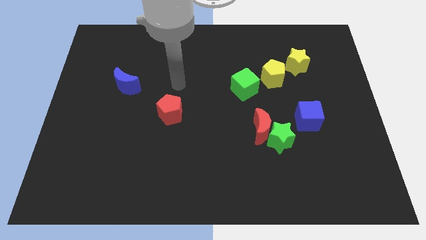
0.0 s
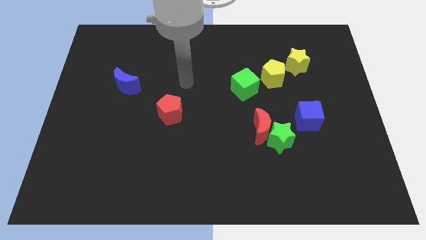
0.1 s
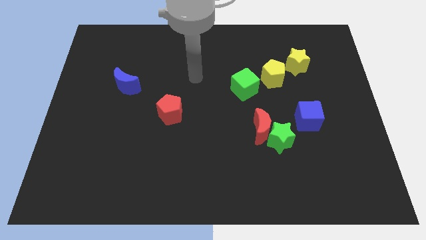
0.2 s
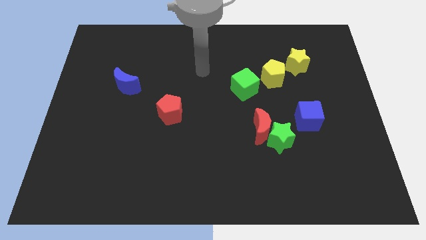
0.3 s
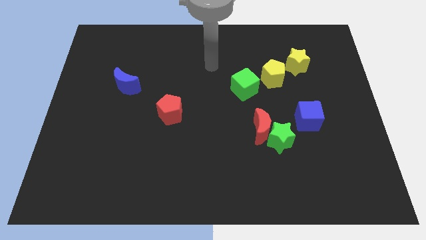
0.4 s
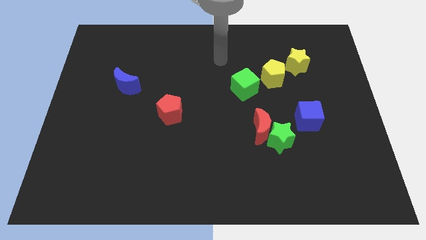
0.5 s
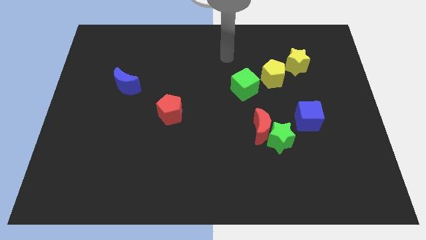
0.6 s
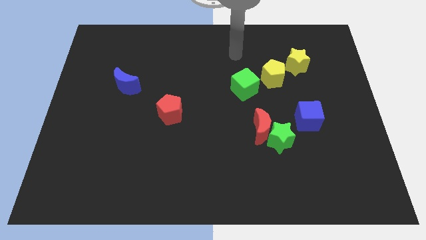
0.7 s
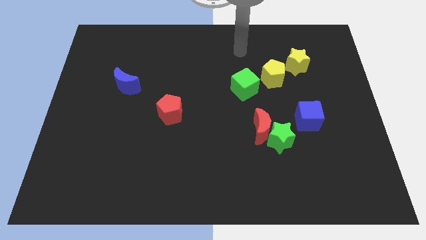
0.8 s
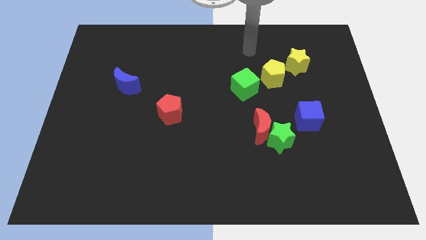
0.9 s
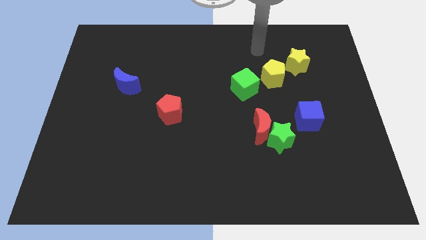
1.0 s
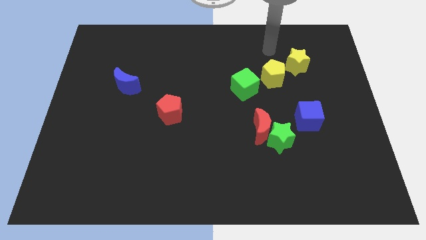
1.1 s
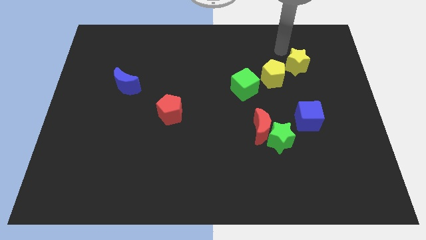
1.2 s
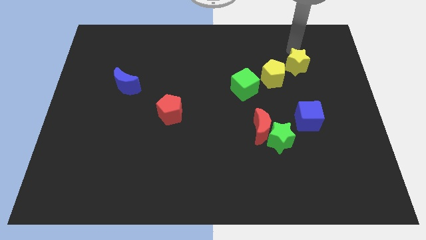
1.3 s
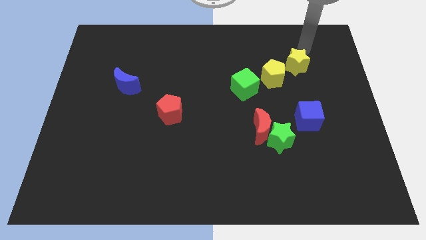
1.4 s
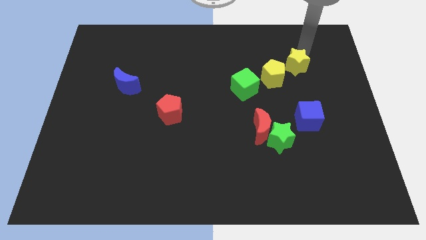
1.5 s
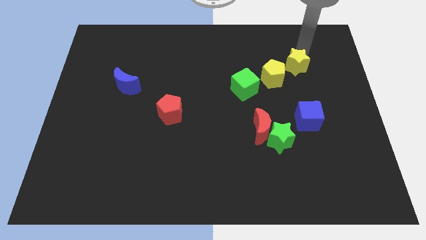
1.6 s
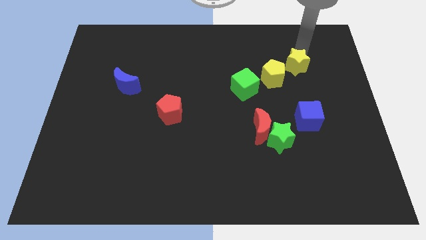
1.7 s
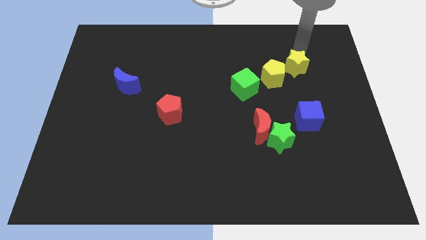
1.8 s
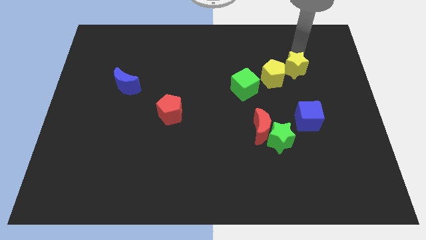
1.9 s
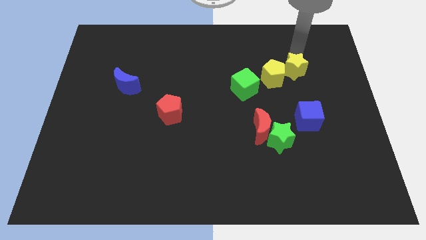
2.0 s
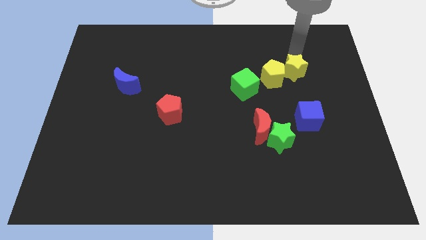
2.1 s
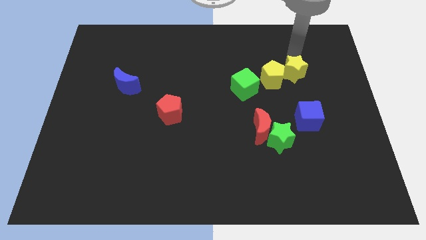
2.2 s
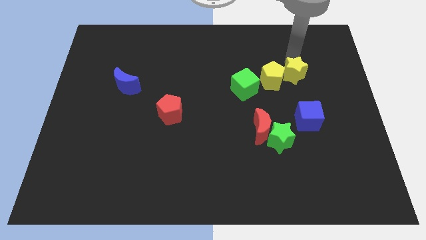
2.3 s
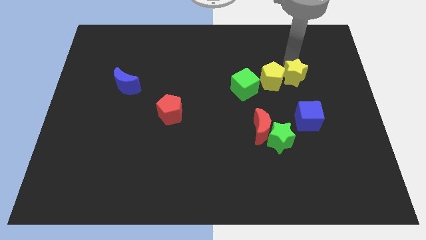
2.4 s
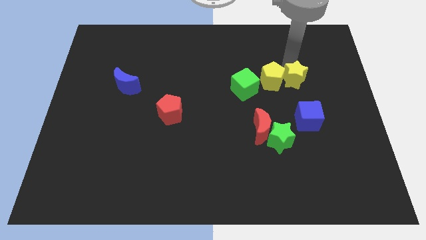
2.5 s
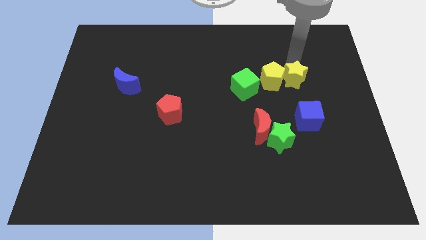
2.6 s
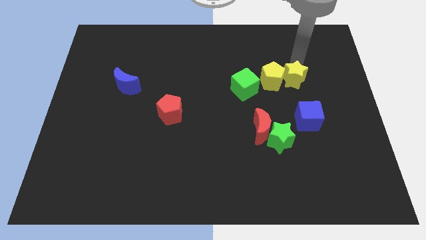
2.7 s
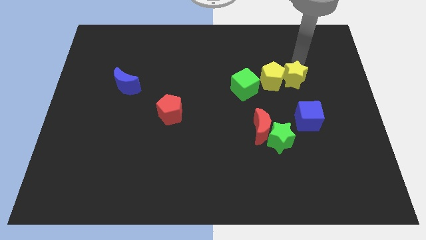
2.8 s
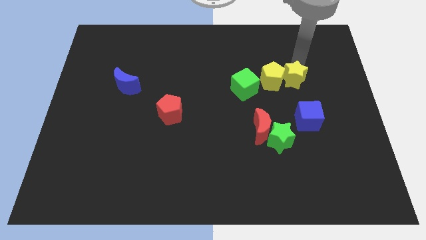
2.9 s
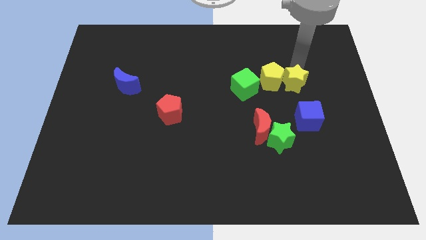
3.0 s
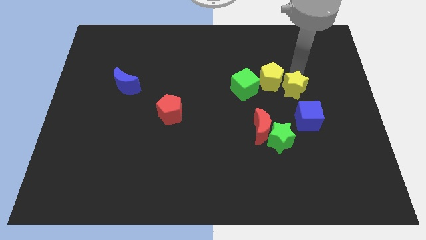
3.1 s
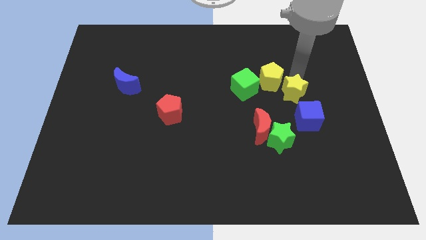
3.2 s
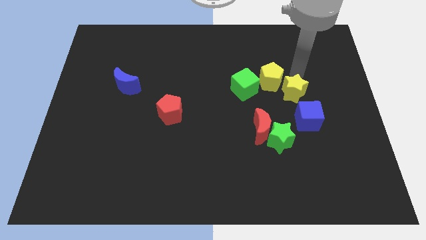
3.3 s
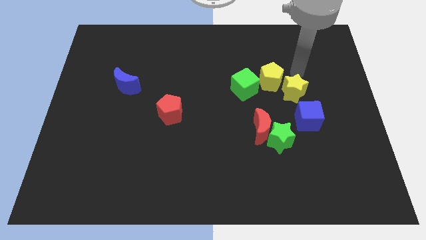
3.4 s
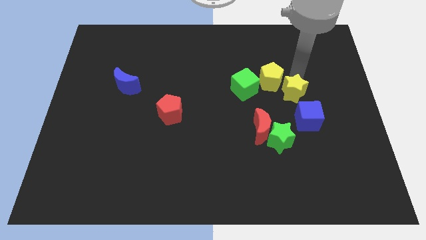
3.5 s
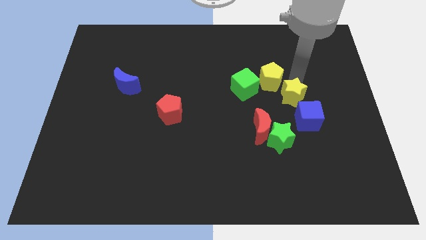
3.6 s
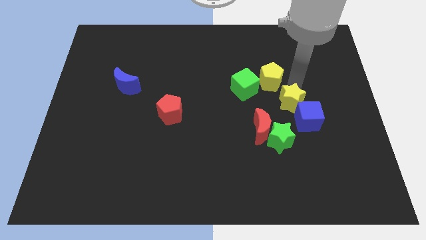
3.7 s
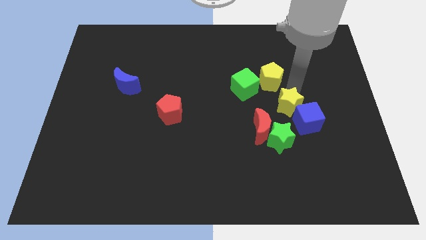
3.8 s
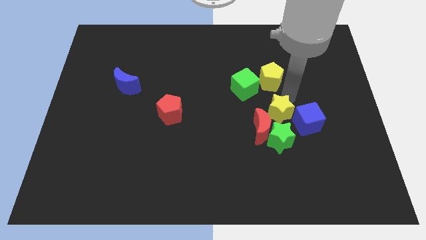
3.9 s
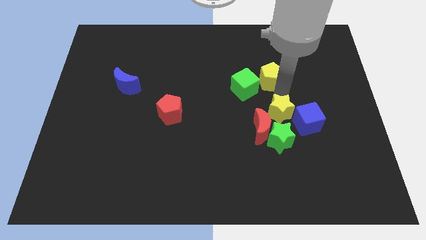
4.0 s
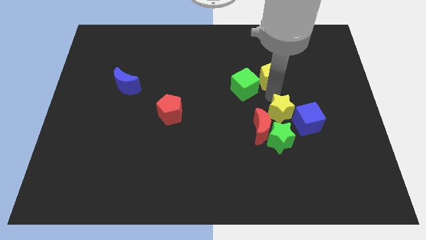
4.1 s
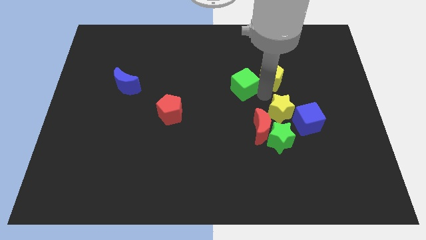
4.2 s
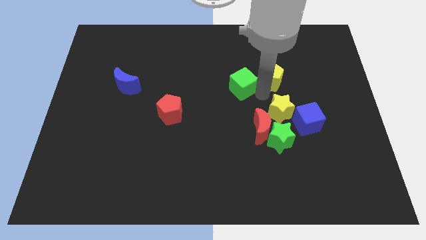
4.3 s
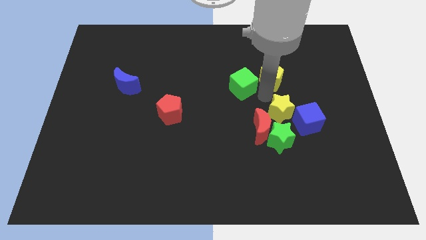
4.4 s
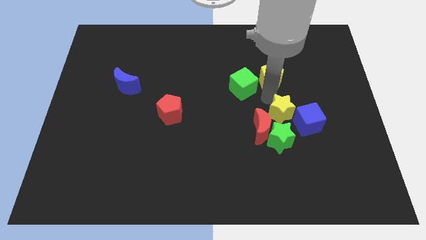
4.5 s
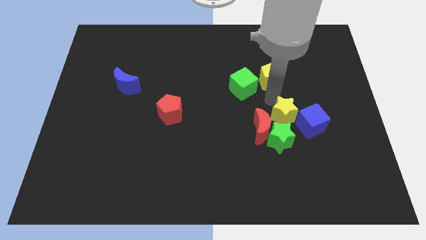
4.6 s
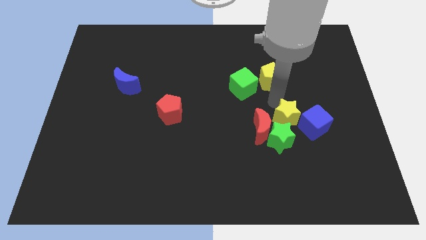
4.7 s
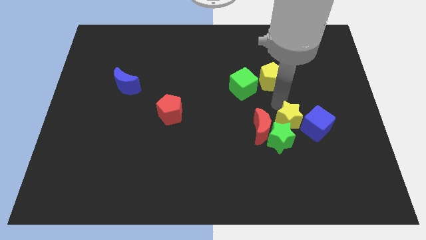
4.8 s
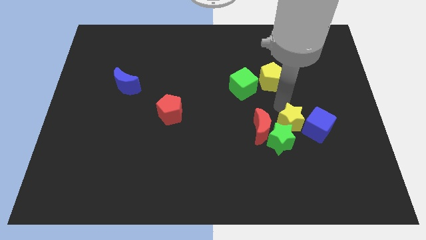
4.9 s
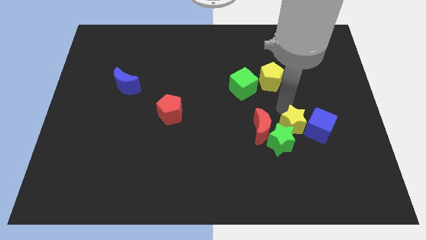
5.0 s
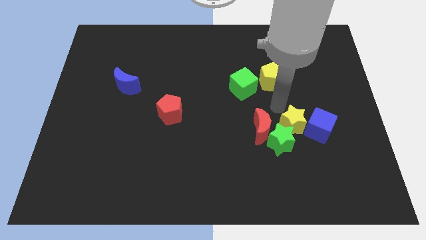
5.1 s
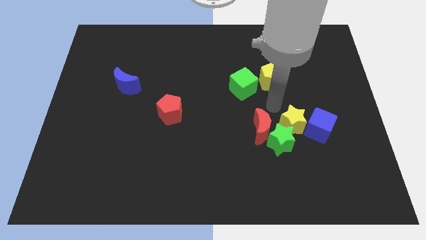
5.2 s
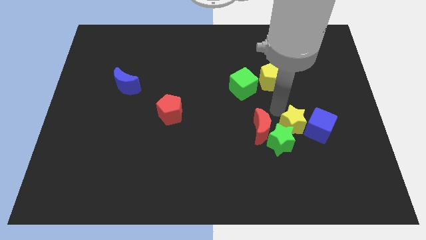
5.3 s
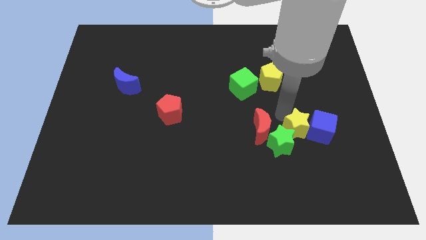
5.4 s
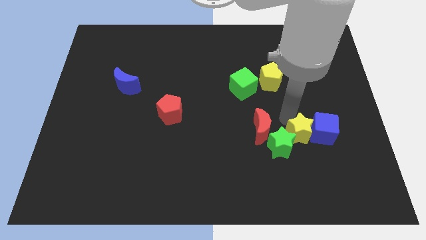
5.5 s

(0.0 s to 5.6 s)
move the yellow star downwards

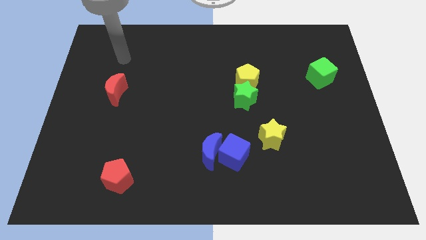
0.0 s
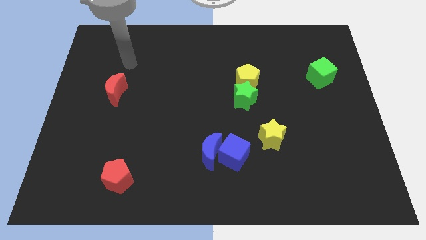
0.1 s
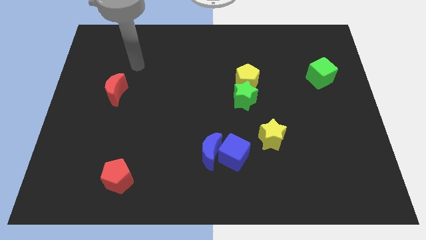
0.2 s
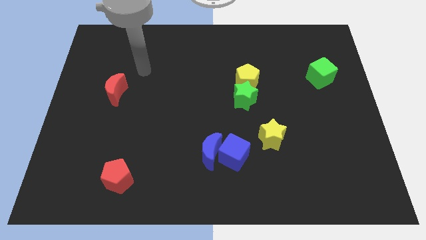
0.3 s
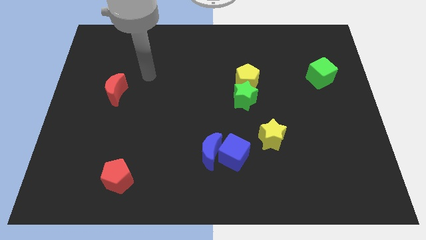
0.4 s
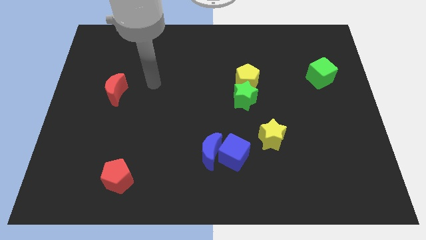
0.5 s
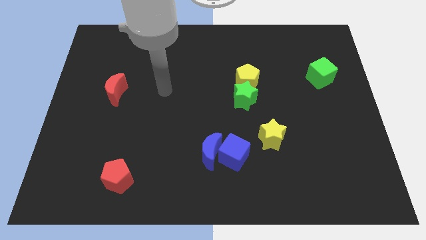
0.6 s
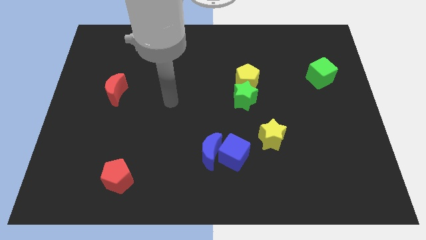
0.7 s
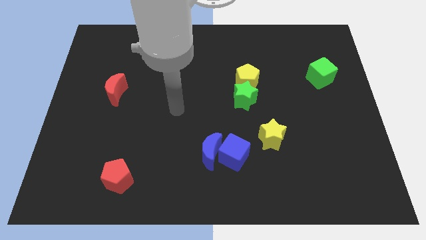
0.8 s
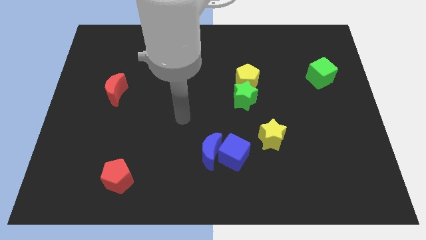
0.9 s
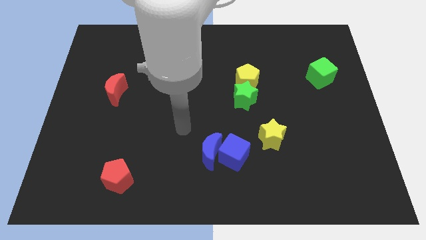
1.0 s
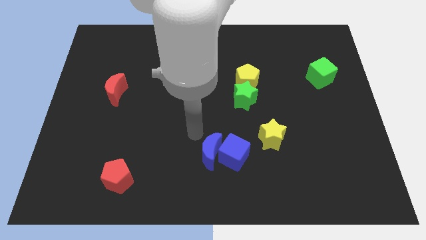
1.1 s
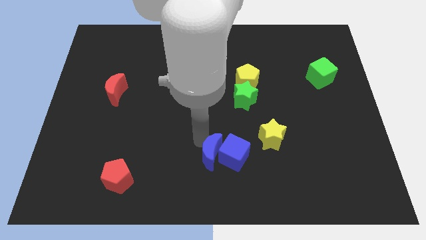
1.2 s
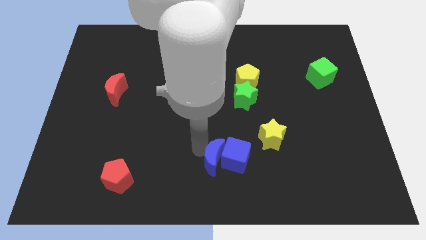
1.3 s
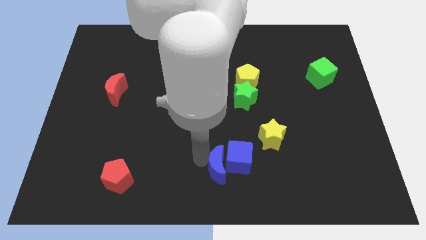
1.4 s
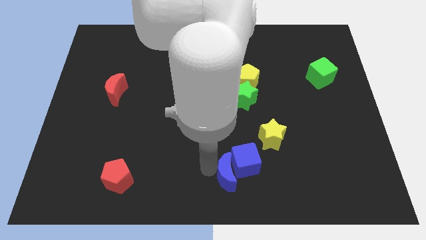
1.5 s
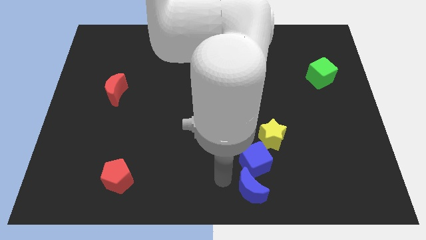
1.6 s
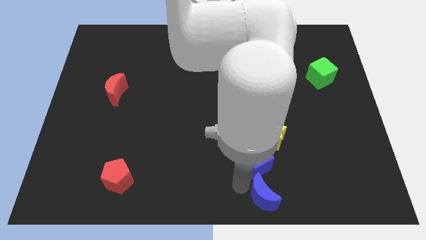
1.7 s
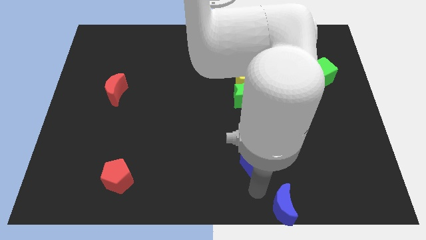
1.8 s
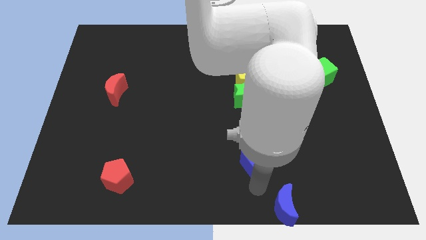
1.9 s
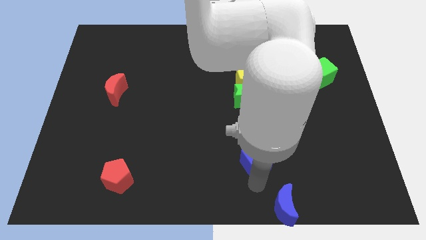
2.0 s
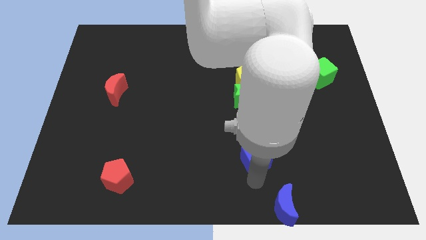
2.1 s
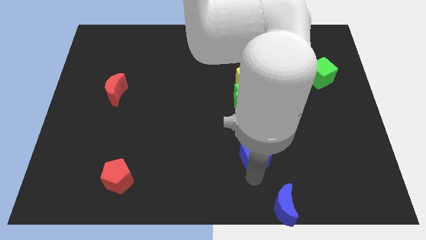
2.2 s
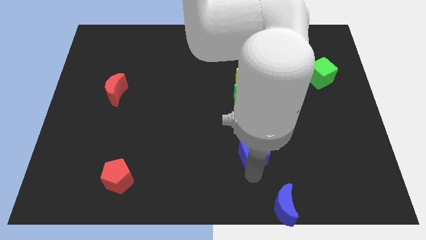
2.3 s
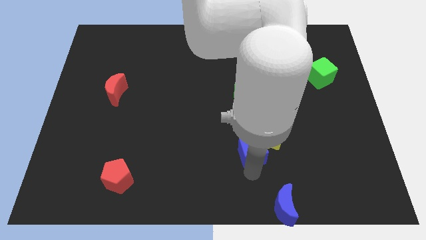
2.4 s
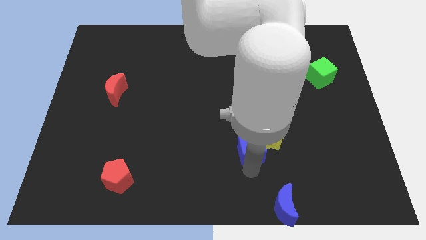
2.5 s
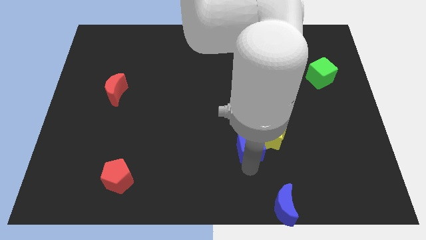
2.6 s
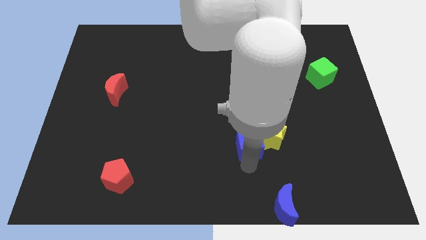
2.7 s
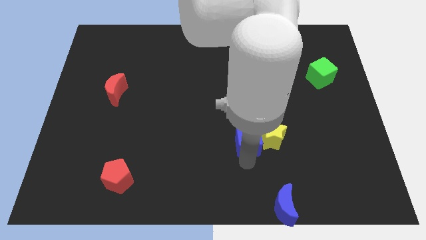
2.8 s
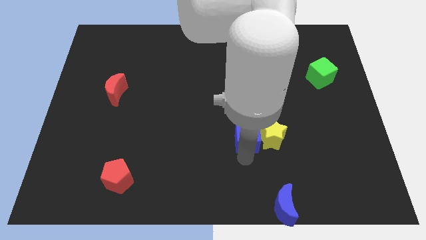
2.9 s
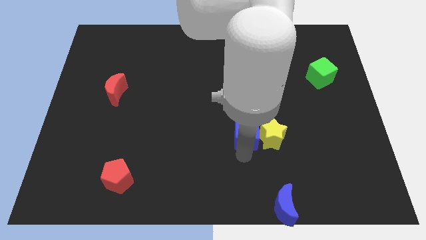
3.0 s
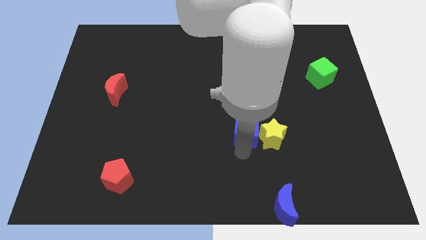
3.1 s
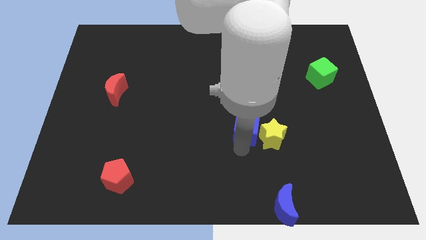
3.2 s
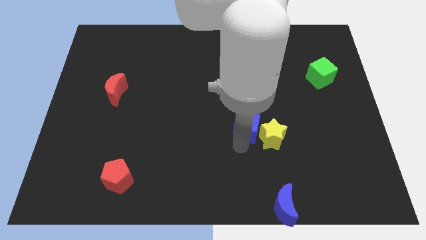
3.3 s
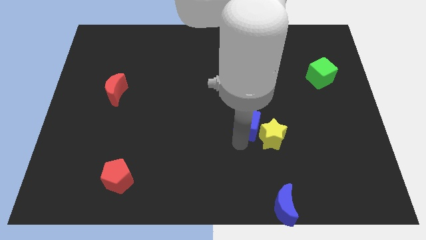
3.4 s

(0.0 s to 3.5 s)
slightly push the blue cube up and then to the right
